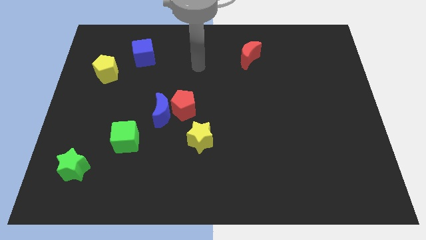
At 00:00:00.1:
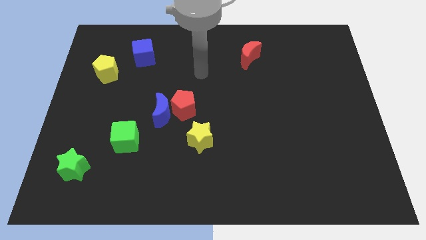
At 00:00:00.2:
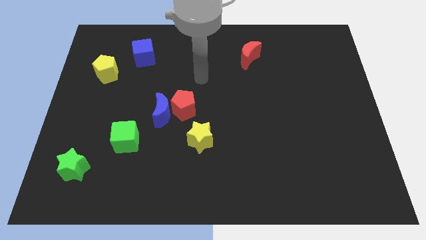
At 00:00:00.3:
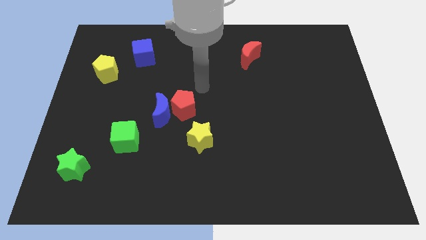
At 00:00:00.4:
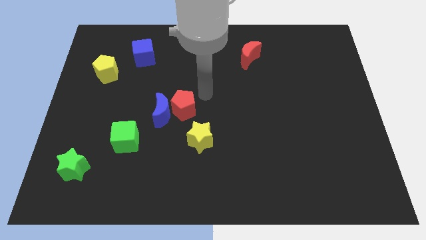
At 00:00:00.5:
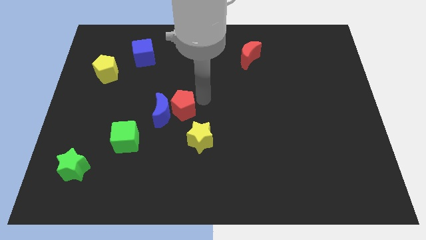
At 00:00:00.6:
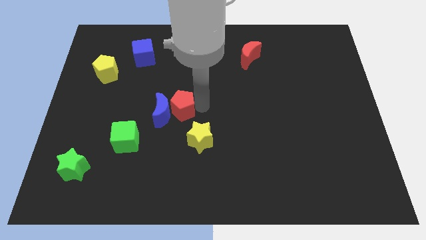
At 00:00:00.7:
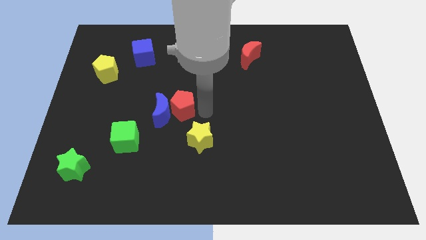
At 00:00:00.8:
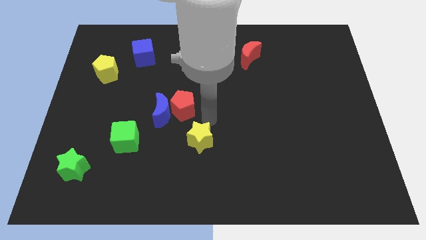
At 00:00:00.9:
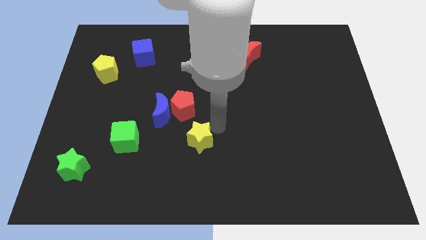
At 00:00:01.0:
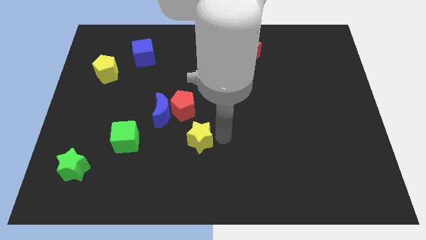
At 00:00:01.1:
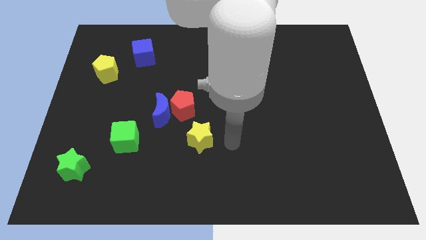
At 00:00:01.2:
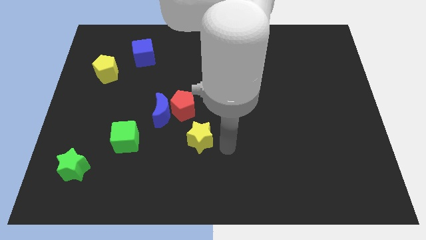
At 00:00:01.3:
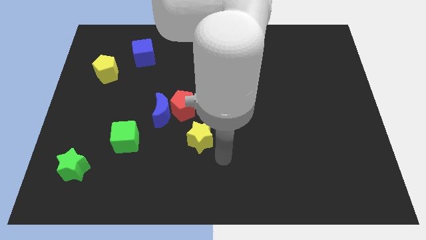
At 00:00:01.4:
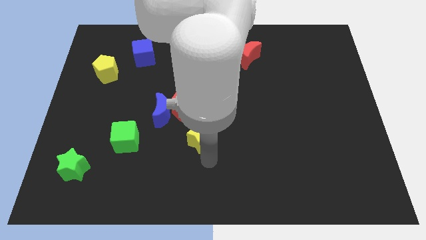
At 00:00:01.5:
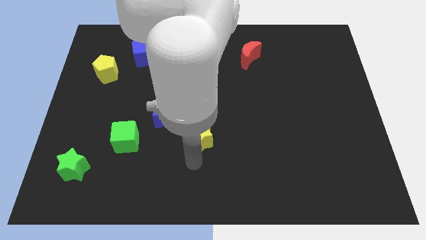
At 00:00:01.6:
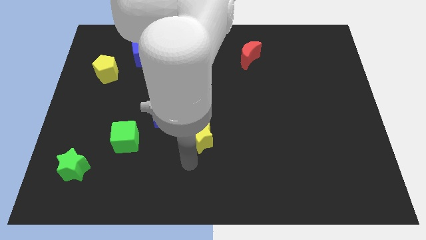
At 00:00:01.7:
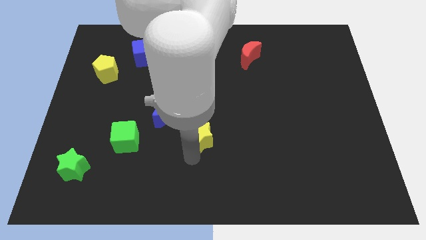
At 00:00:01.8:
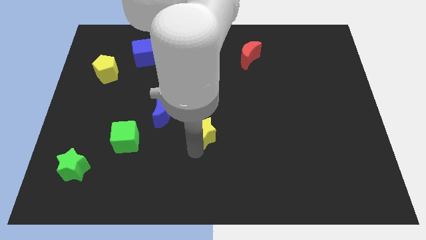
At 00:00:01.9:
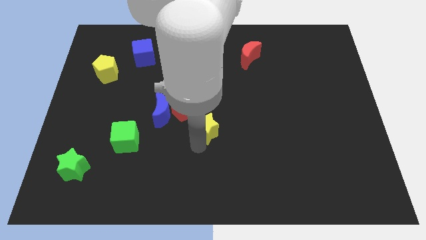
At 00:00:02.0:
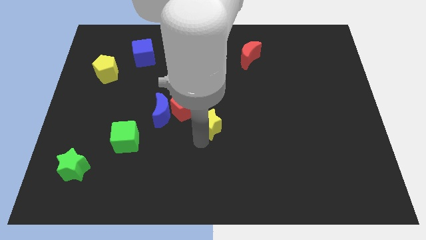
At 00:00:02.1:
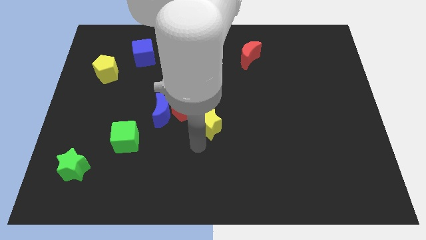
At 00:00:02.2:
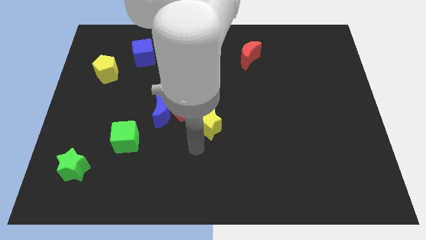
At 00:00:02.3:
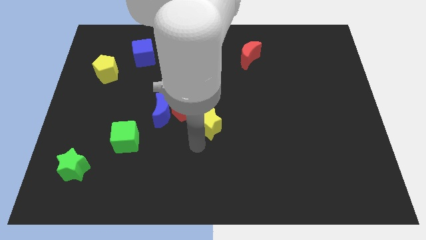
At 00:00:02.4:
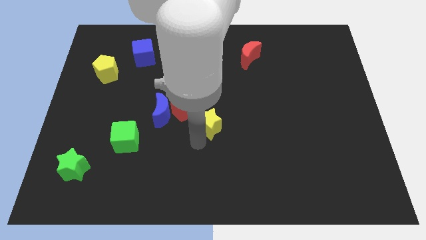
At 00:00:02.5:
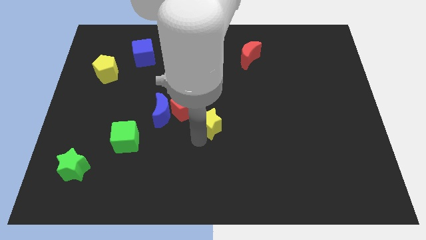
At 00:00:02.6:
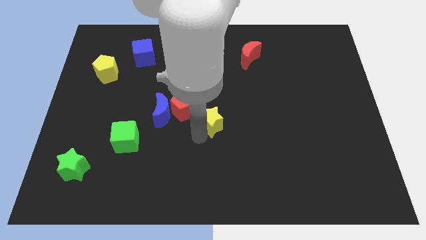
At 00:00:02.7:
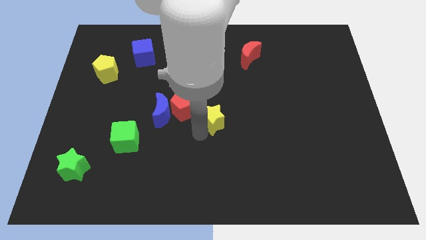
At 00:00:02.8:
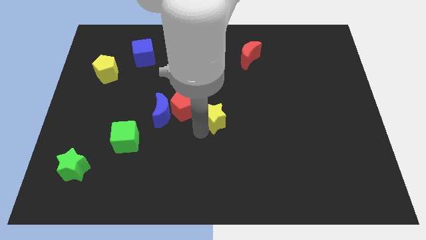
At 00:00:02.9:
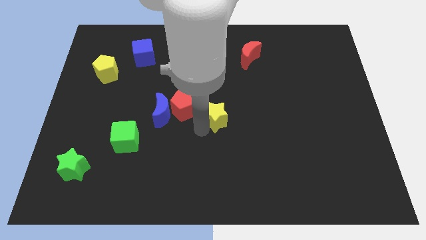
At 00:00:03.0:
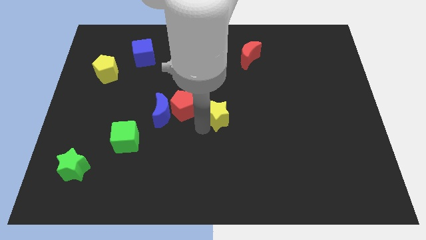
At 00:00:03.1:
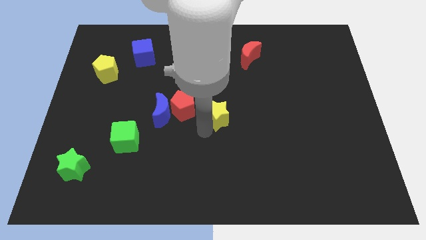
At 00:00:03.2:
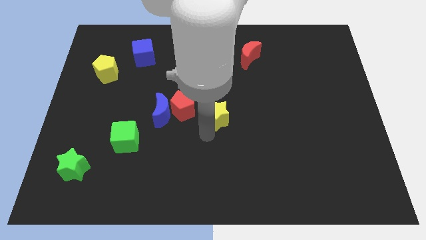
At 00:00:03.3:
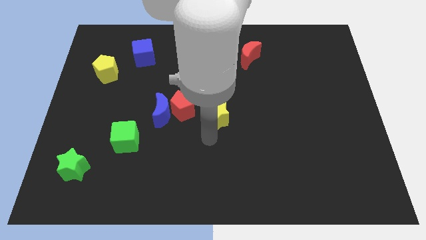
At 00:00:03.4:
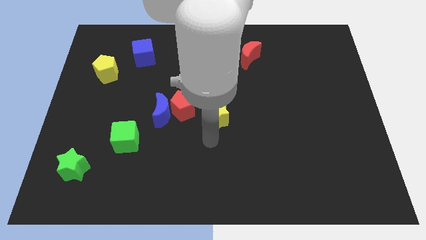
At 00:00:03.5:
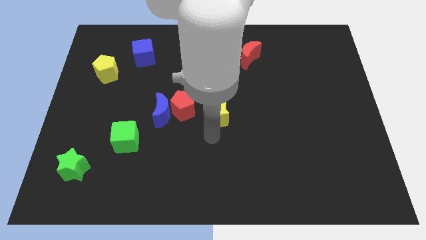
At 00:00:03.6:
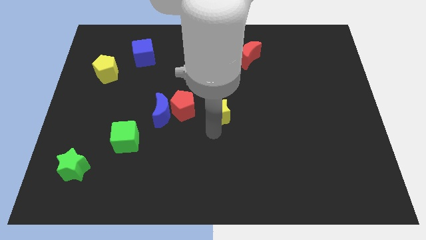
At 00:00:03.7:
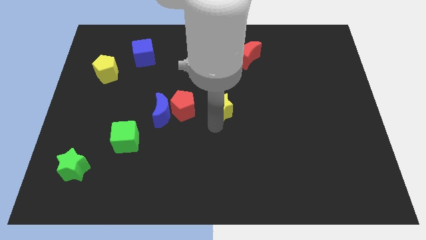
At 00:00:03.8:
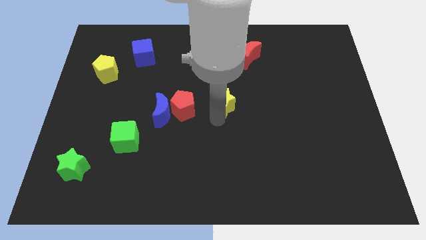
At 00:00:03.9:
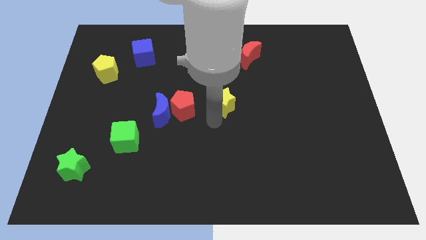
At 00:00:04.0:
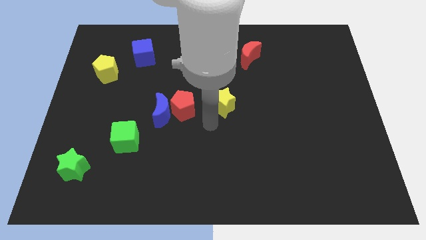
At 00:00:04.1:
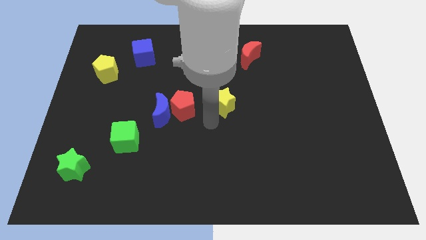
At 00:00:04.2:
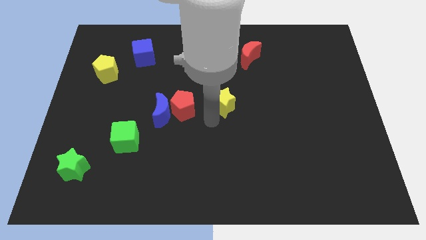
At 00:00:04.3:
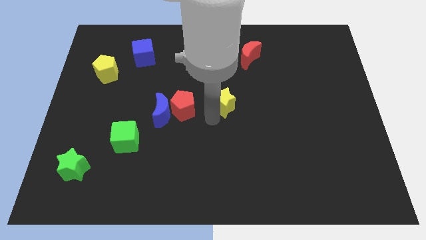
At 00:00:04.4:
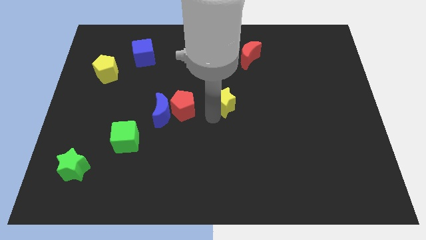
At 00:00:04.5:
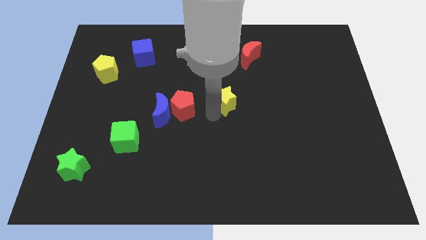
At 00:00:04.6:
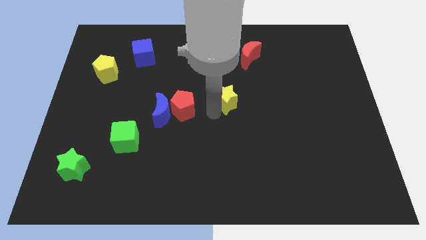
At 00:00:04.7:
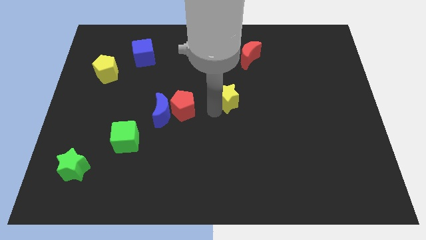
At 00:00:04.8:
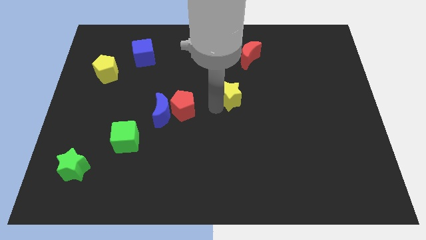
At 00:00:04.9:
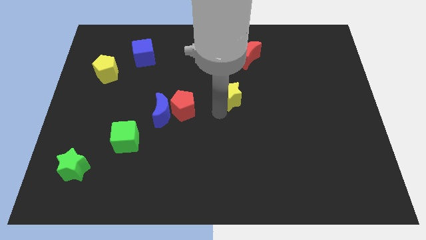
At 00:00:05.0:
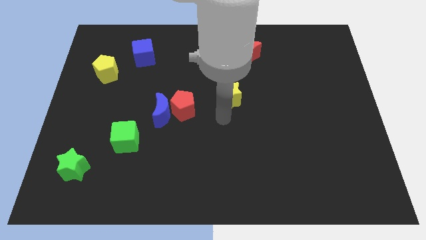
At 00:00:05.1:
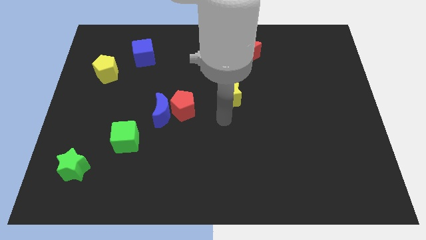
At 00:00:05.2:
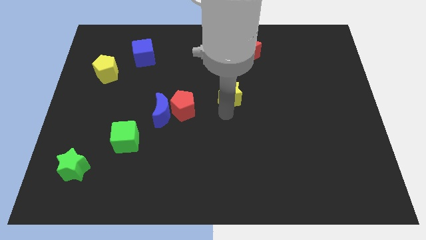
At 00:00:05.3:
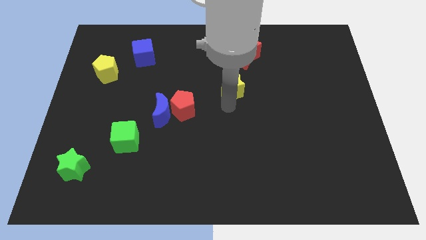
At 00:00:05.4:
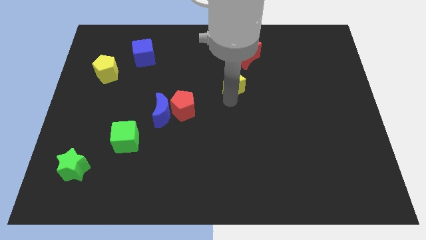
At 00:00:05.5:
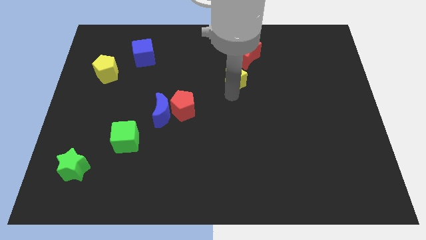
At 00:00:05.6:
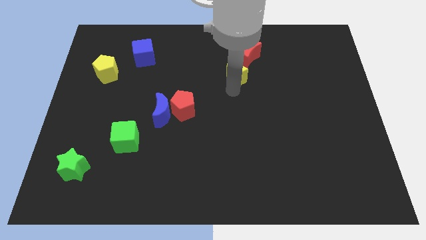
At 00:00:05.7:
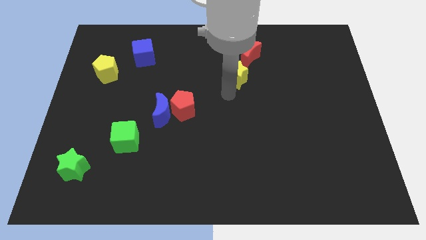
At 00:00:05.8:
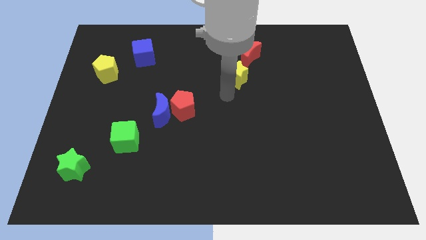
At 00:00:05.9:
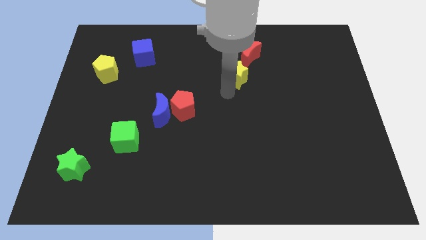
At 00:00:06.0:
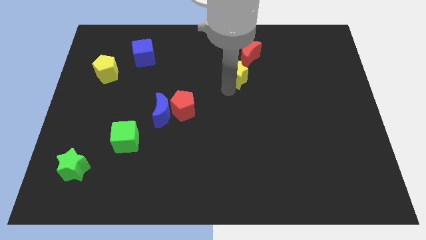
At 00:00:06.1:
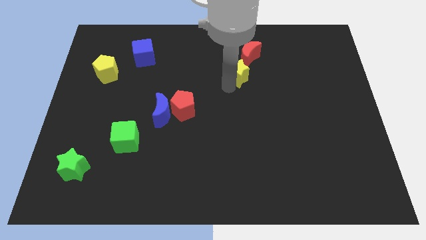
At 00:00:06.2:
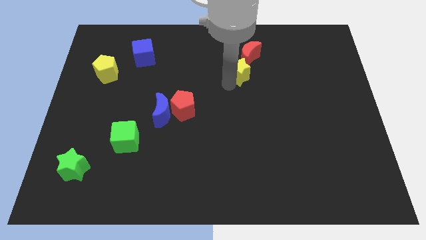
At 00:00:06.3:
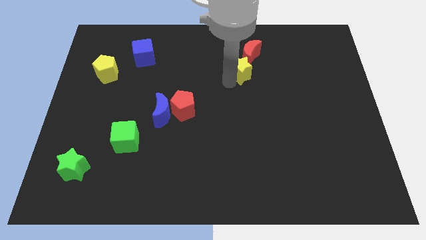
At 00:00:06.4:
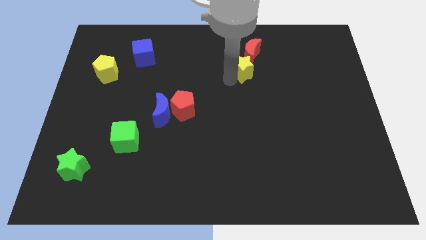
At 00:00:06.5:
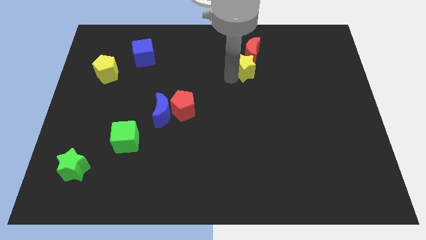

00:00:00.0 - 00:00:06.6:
slide the yellow star towards the red moon

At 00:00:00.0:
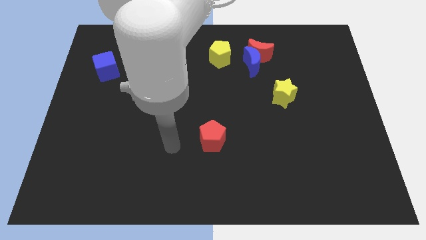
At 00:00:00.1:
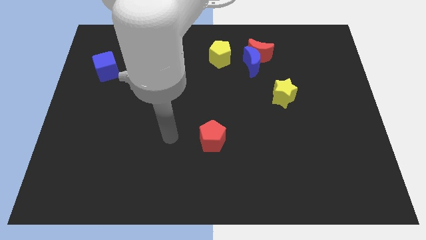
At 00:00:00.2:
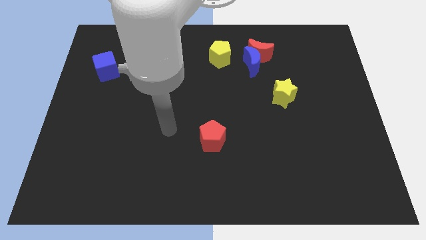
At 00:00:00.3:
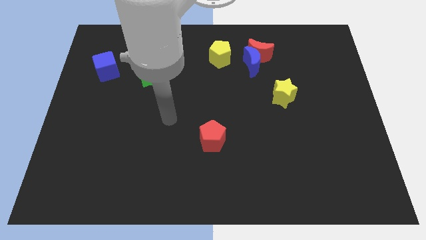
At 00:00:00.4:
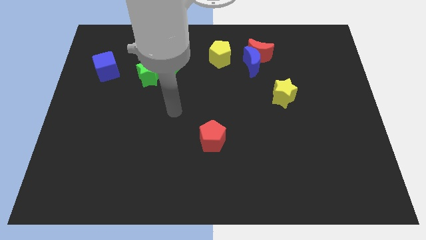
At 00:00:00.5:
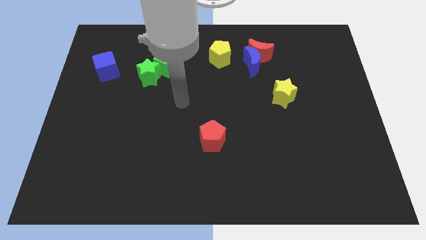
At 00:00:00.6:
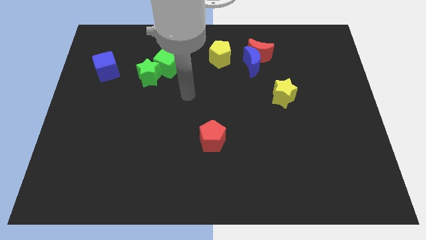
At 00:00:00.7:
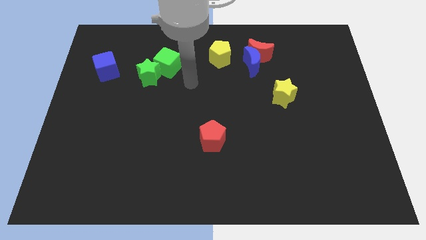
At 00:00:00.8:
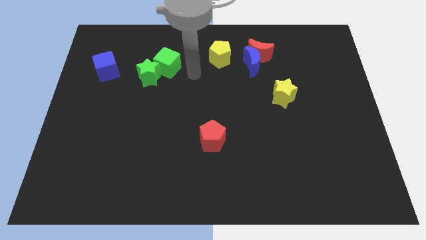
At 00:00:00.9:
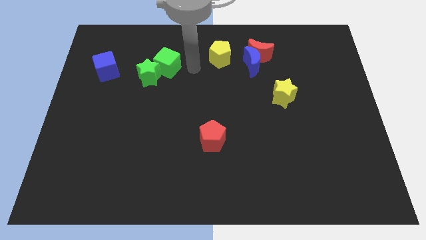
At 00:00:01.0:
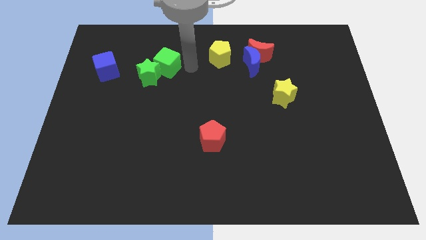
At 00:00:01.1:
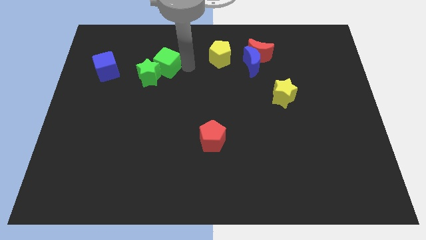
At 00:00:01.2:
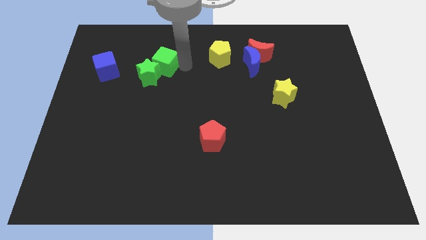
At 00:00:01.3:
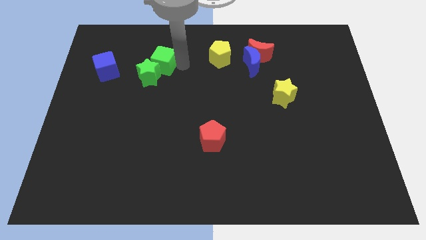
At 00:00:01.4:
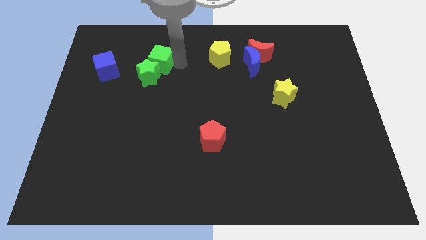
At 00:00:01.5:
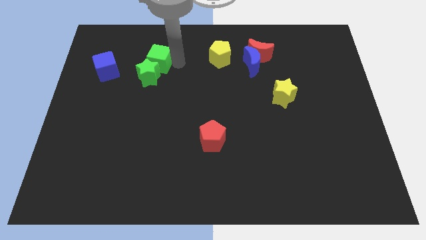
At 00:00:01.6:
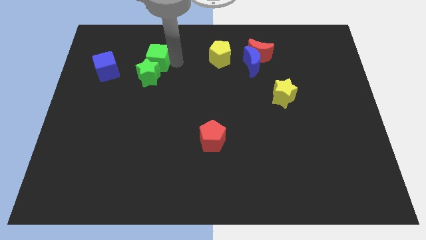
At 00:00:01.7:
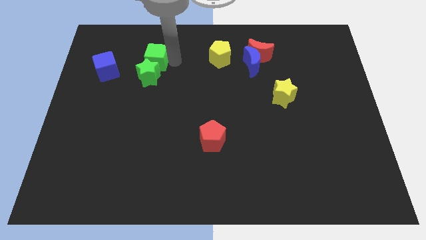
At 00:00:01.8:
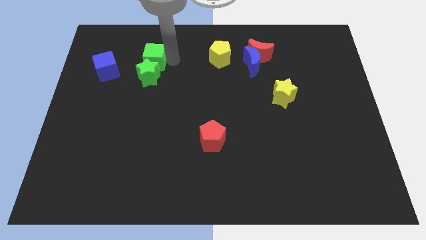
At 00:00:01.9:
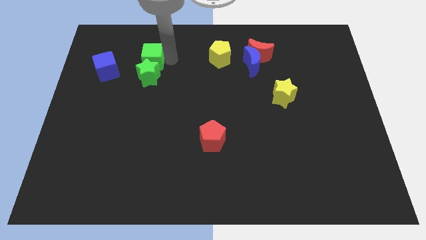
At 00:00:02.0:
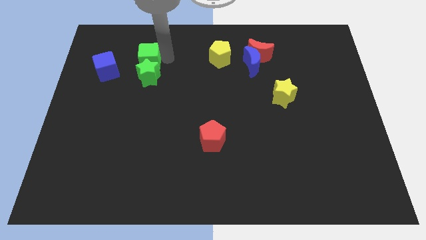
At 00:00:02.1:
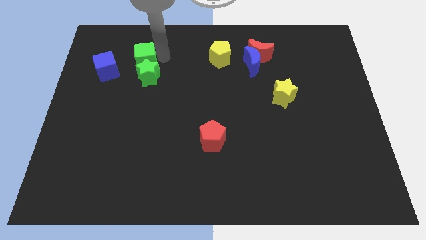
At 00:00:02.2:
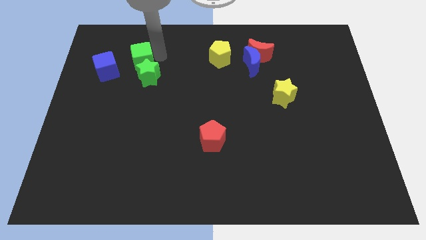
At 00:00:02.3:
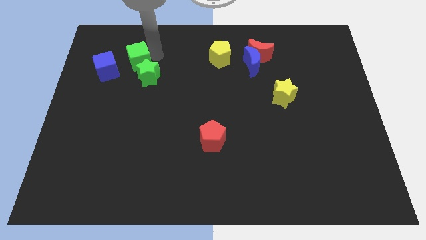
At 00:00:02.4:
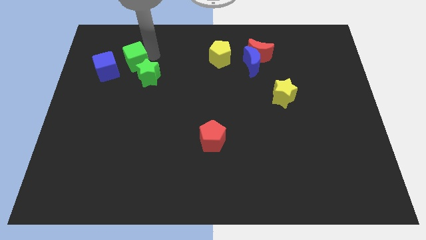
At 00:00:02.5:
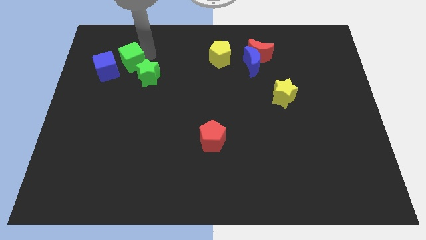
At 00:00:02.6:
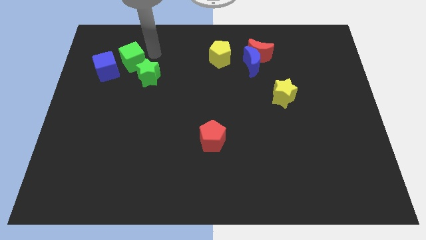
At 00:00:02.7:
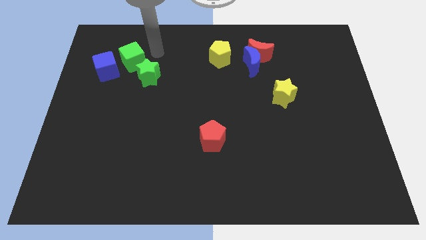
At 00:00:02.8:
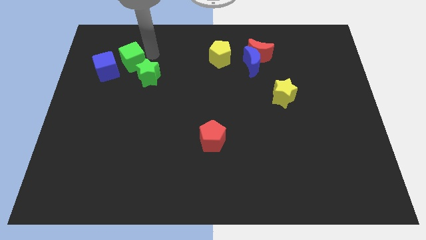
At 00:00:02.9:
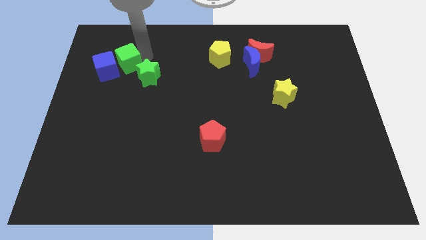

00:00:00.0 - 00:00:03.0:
slide the green cube to the blue cube
